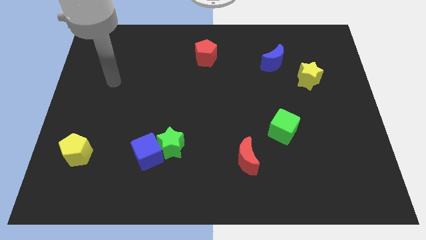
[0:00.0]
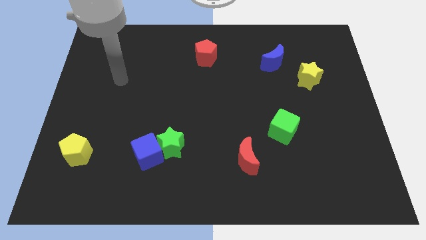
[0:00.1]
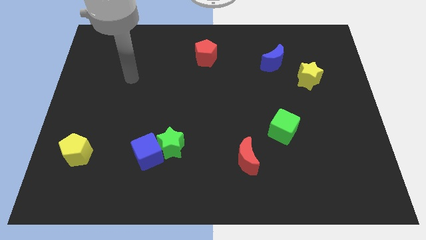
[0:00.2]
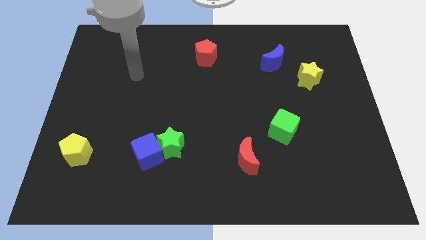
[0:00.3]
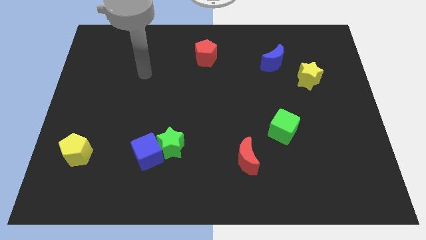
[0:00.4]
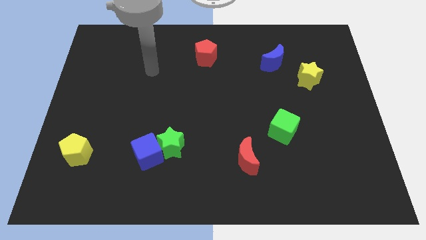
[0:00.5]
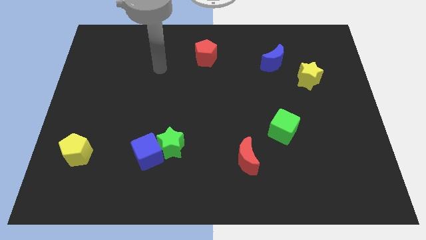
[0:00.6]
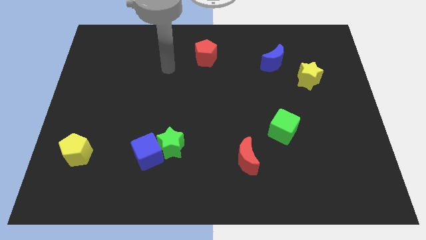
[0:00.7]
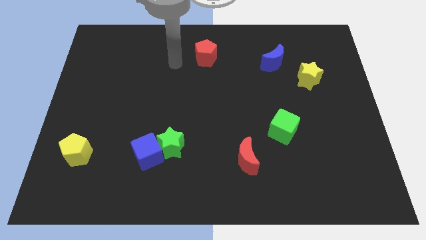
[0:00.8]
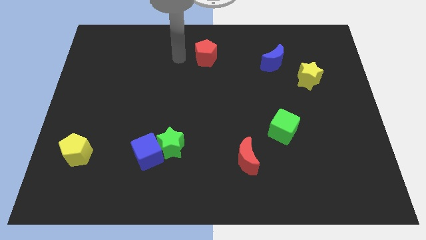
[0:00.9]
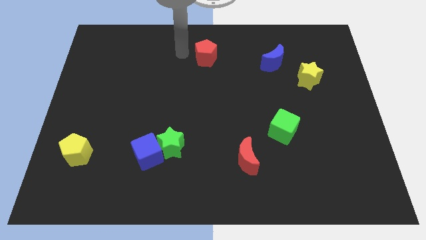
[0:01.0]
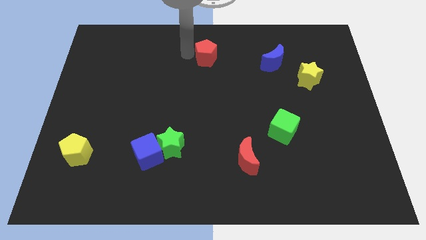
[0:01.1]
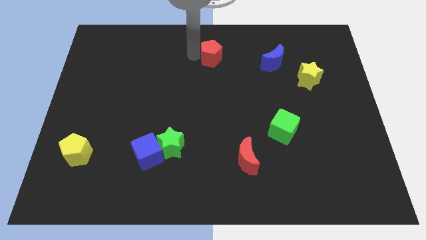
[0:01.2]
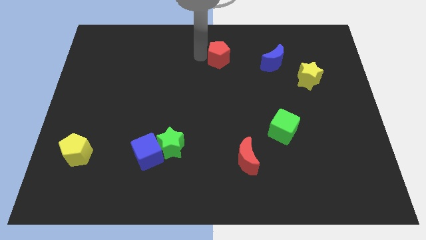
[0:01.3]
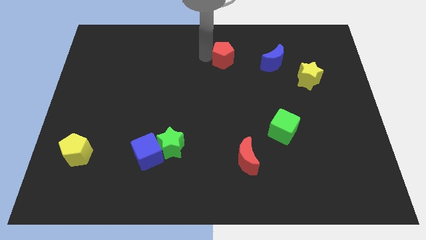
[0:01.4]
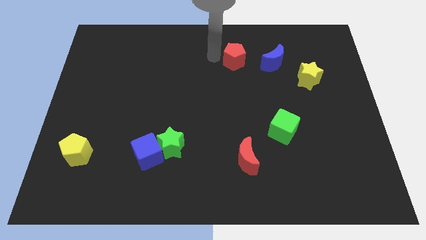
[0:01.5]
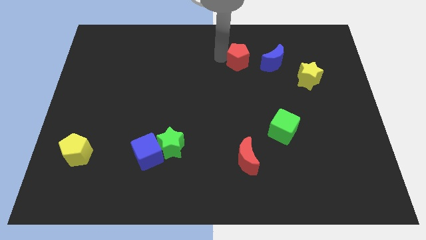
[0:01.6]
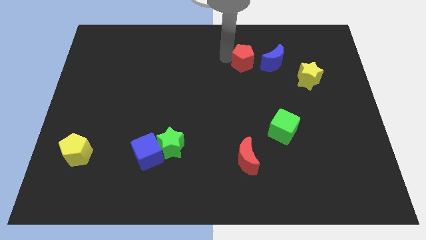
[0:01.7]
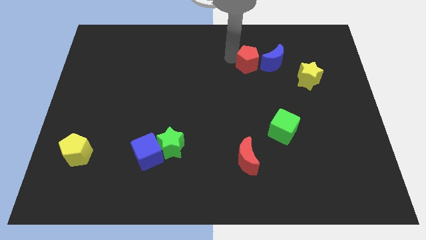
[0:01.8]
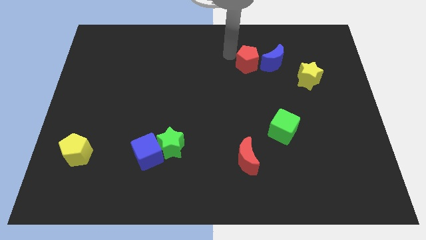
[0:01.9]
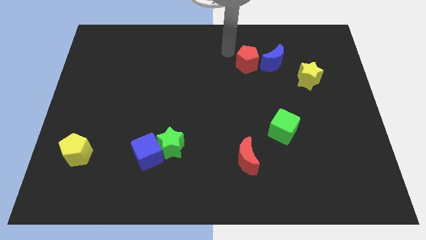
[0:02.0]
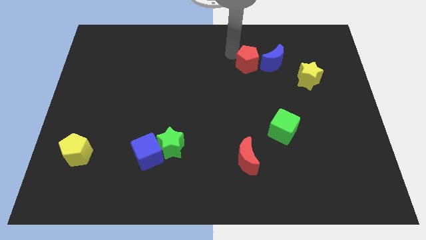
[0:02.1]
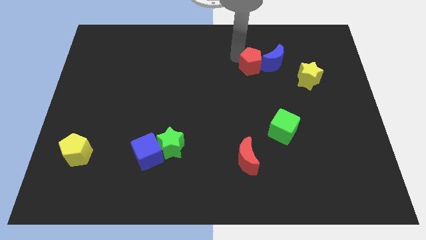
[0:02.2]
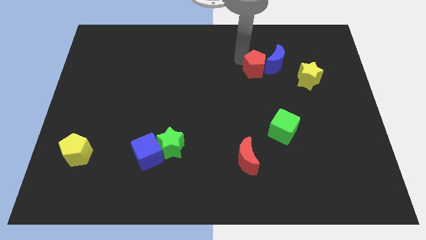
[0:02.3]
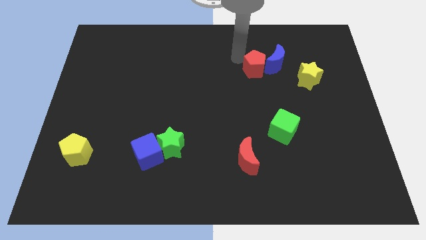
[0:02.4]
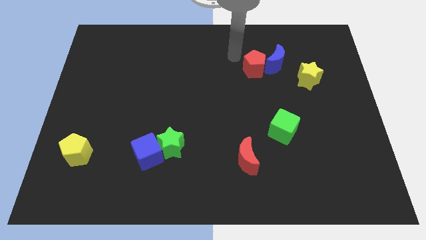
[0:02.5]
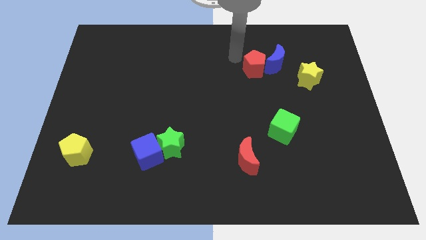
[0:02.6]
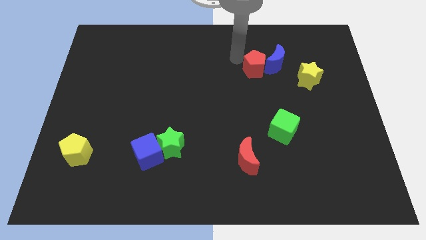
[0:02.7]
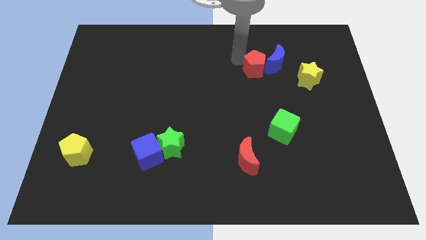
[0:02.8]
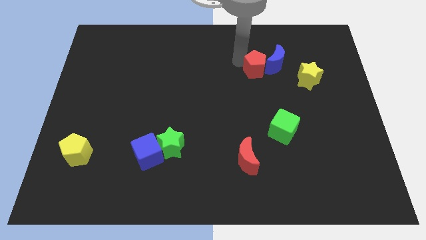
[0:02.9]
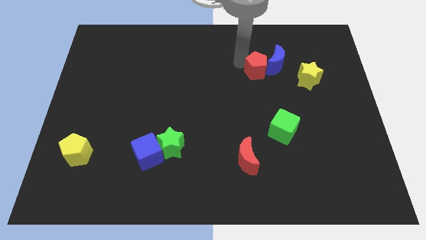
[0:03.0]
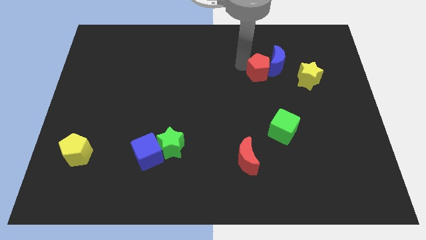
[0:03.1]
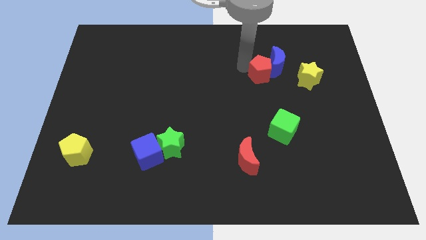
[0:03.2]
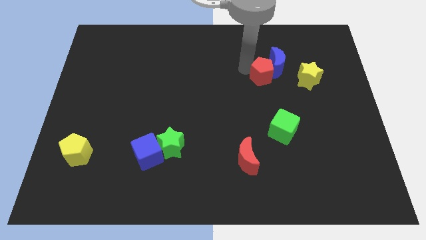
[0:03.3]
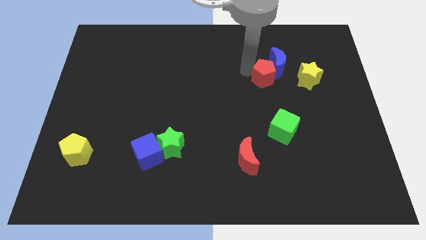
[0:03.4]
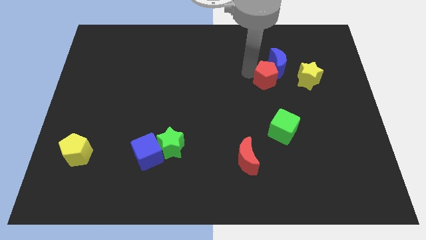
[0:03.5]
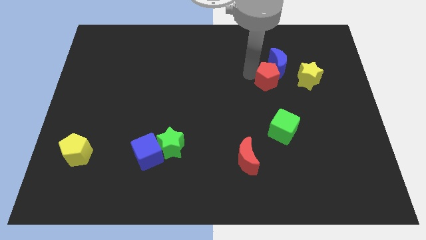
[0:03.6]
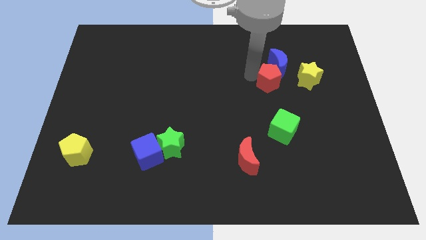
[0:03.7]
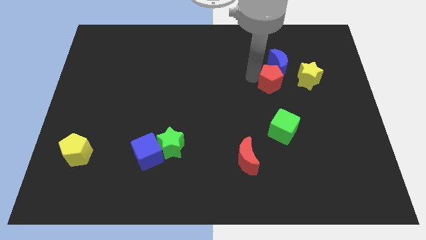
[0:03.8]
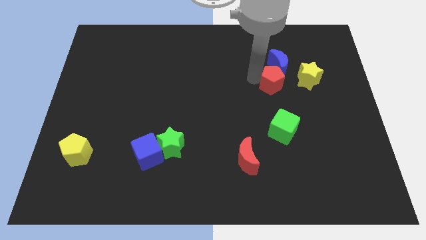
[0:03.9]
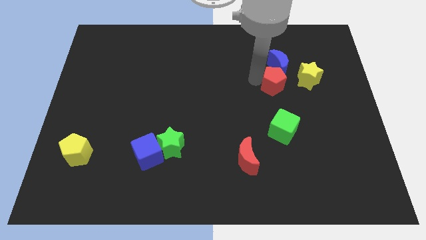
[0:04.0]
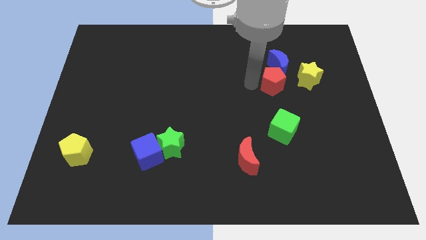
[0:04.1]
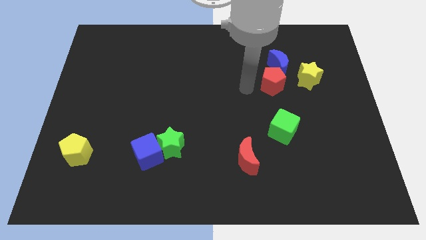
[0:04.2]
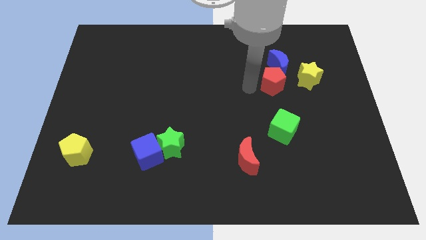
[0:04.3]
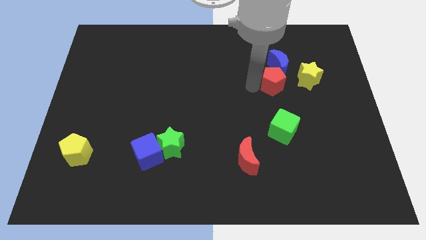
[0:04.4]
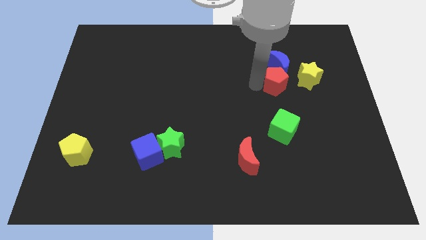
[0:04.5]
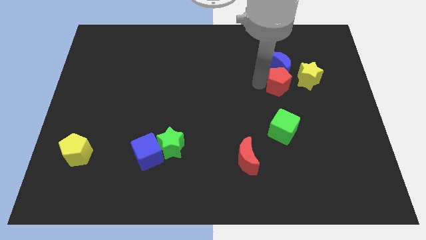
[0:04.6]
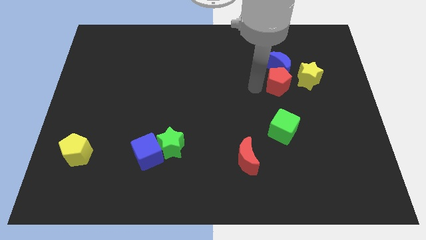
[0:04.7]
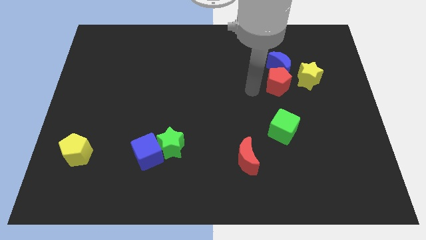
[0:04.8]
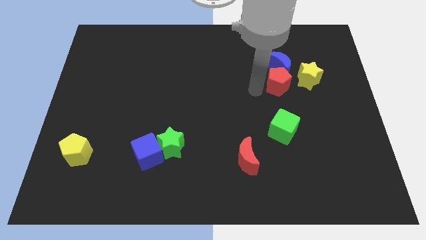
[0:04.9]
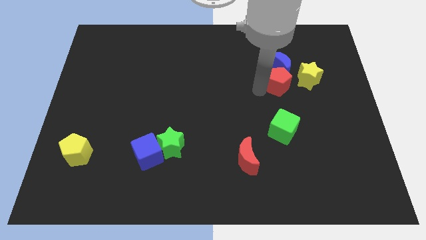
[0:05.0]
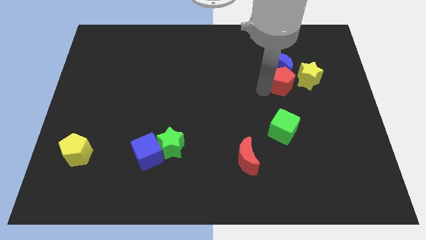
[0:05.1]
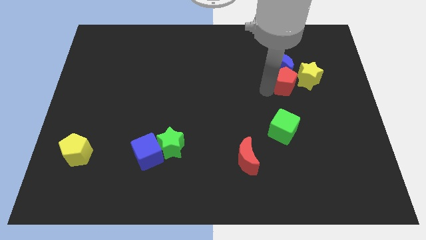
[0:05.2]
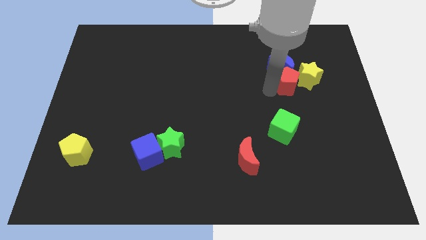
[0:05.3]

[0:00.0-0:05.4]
slide the red pentagon next to the yellow star

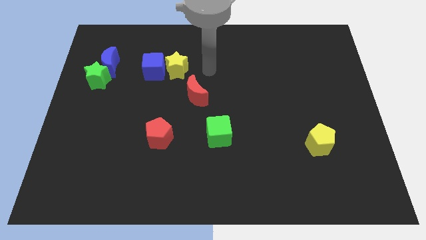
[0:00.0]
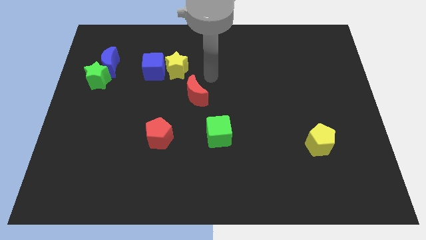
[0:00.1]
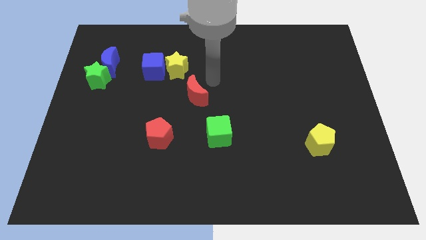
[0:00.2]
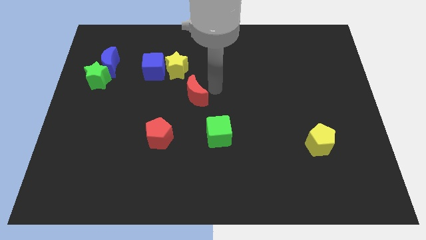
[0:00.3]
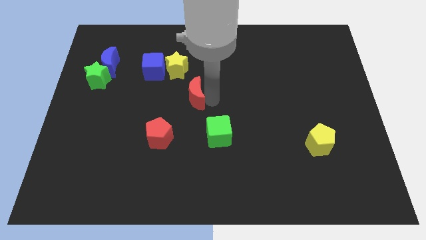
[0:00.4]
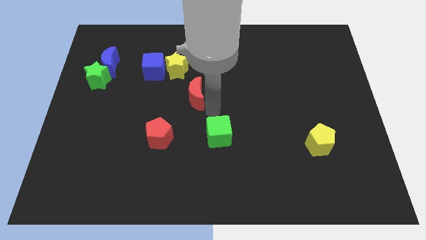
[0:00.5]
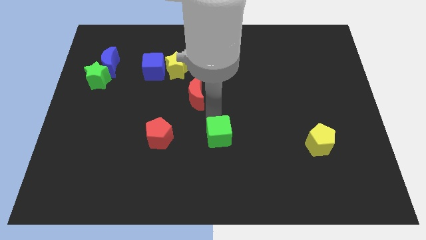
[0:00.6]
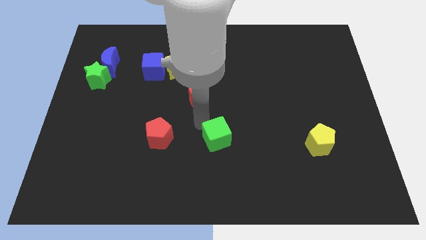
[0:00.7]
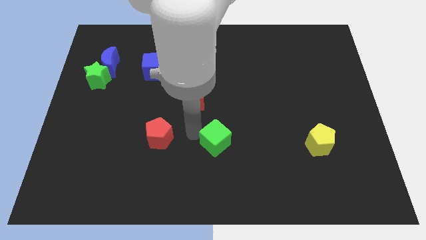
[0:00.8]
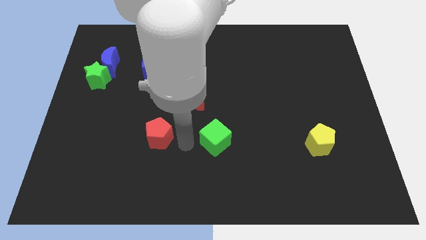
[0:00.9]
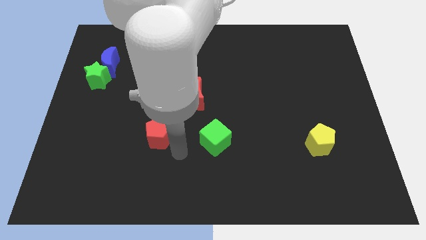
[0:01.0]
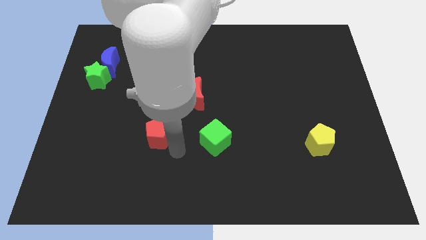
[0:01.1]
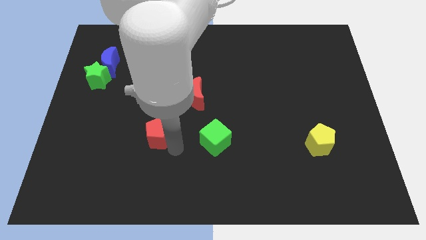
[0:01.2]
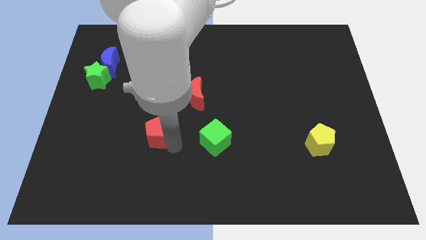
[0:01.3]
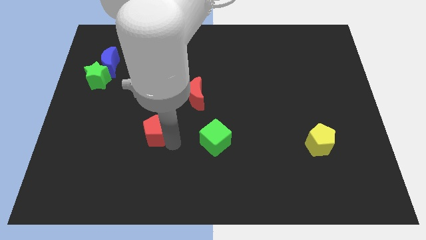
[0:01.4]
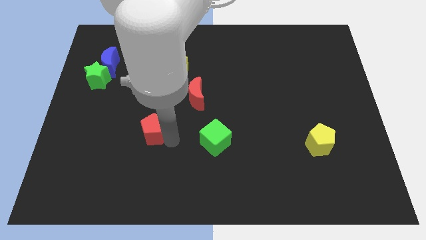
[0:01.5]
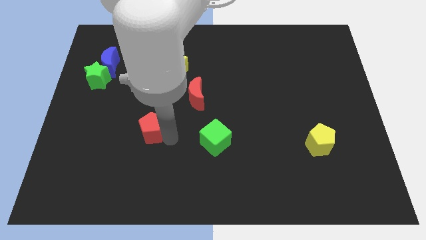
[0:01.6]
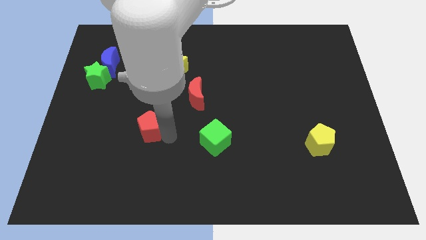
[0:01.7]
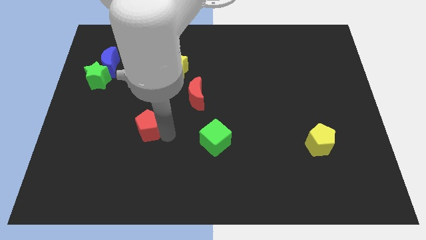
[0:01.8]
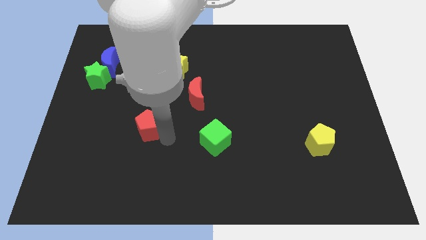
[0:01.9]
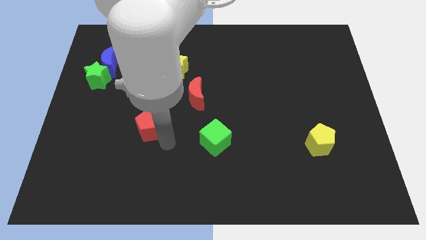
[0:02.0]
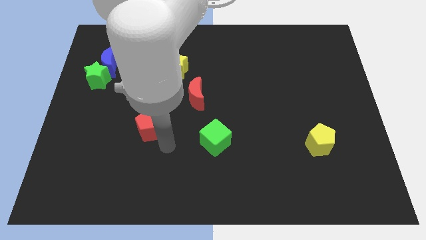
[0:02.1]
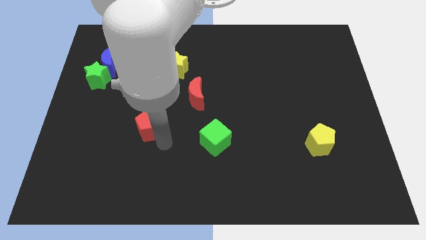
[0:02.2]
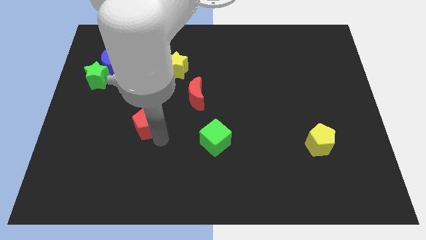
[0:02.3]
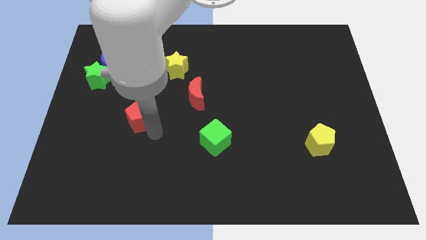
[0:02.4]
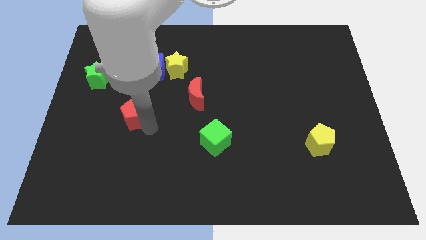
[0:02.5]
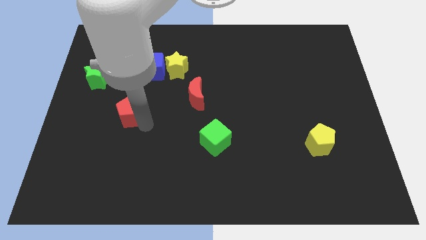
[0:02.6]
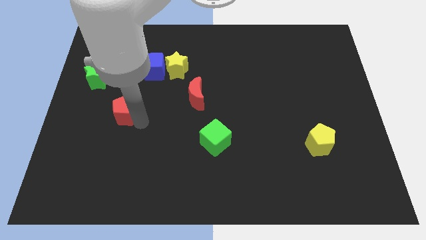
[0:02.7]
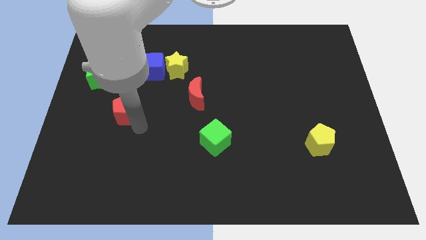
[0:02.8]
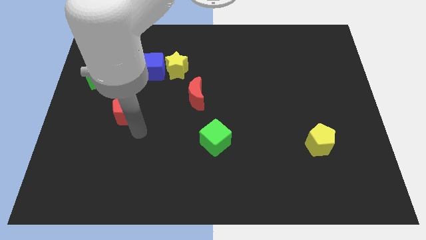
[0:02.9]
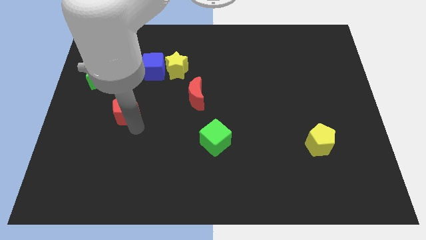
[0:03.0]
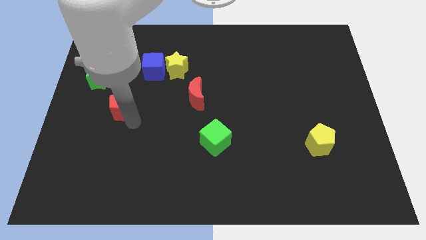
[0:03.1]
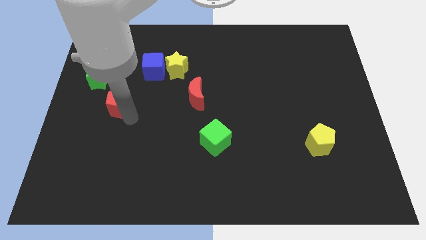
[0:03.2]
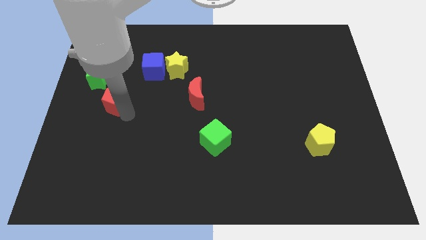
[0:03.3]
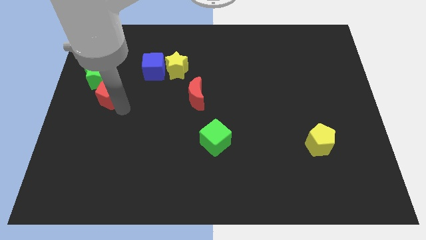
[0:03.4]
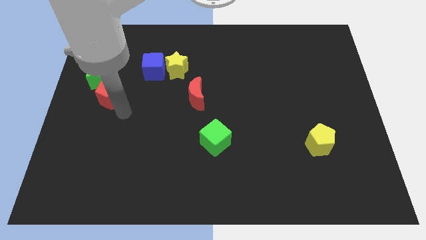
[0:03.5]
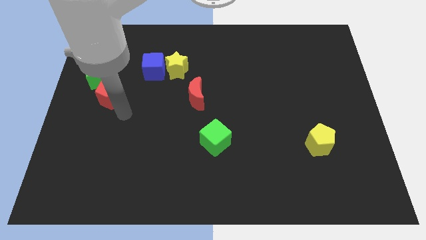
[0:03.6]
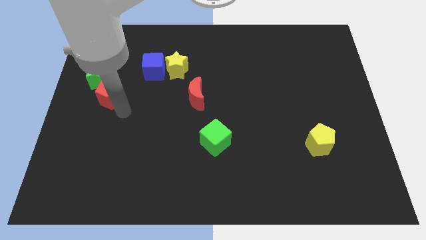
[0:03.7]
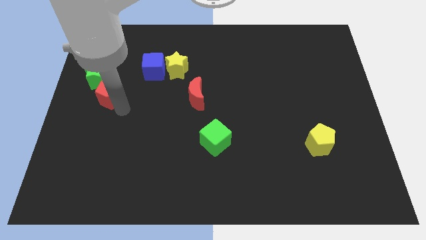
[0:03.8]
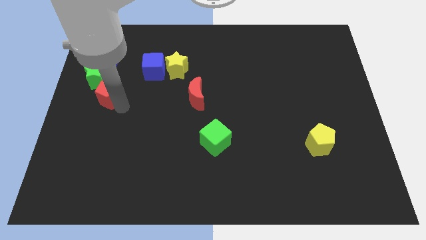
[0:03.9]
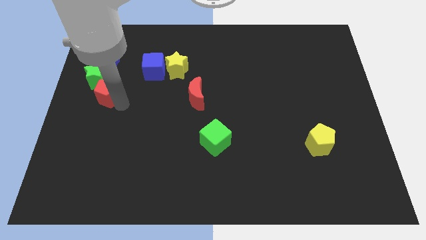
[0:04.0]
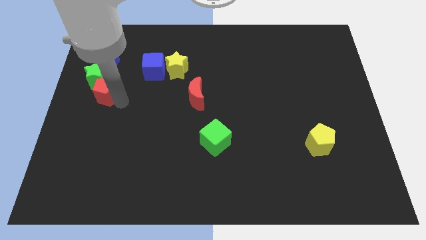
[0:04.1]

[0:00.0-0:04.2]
put the red pentagon to the green star
